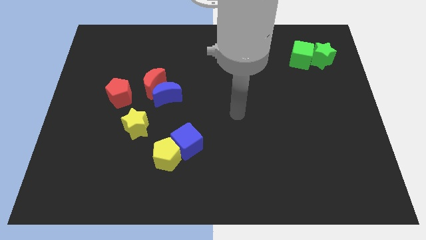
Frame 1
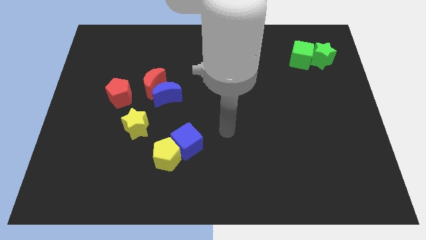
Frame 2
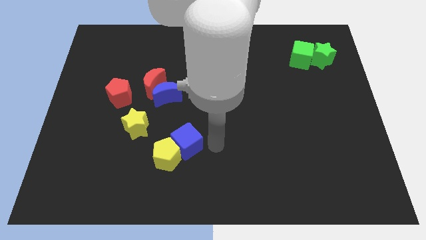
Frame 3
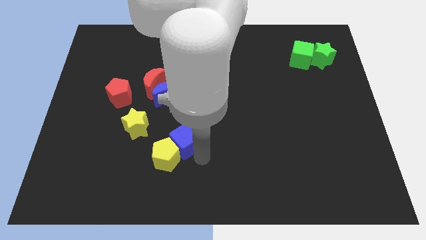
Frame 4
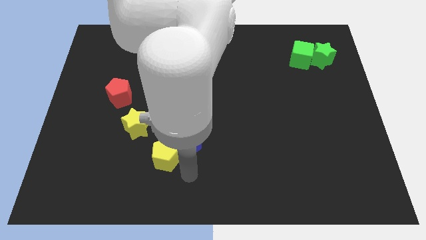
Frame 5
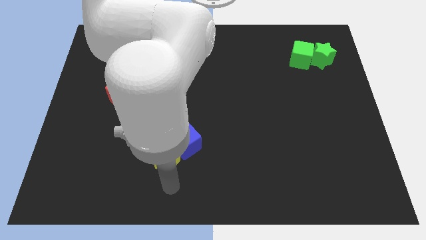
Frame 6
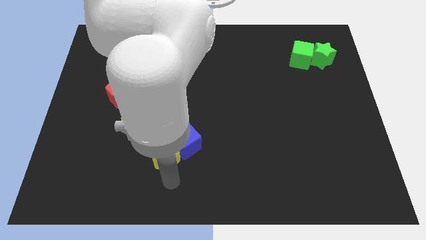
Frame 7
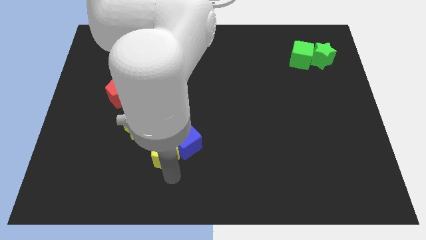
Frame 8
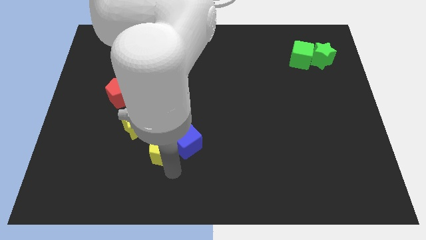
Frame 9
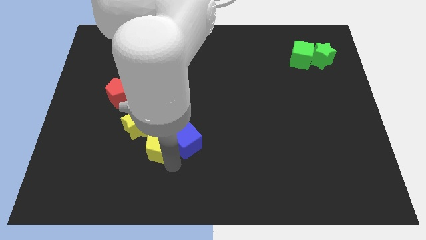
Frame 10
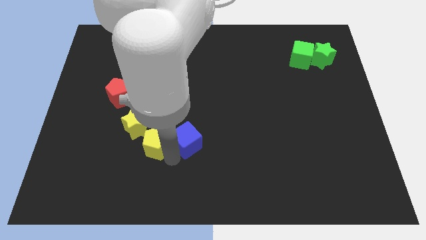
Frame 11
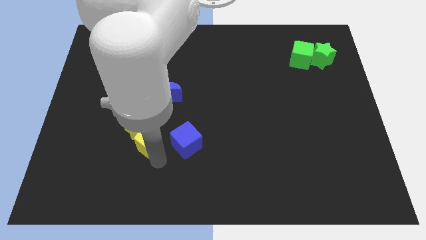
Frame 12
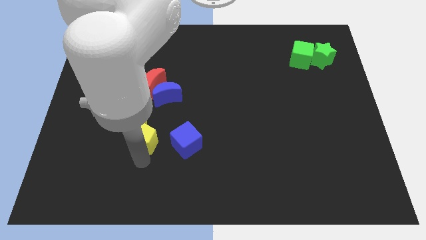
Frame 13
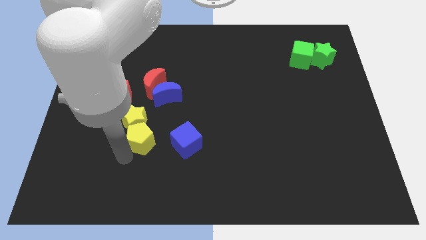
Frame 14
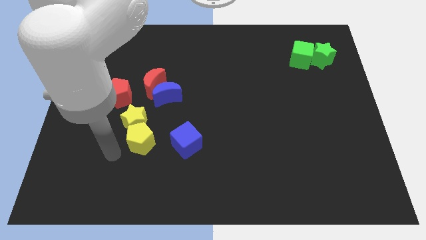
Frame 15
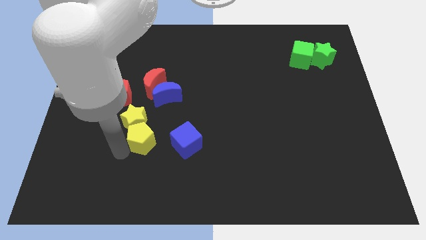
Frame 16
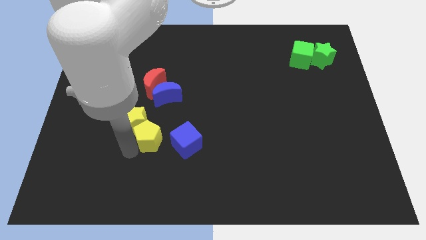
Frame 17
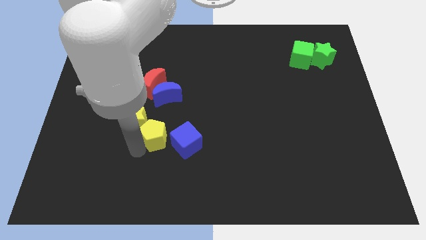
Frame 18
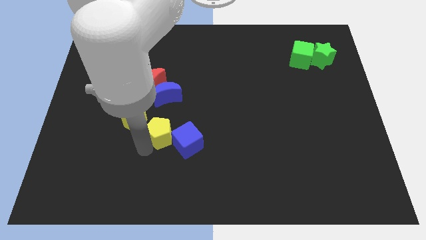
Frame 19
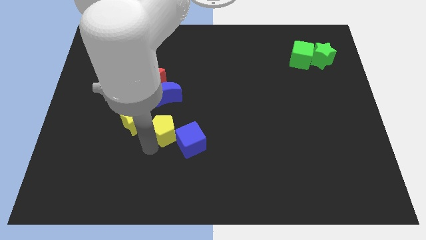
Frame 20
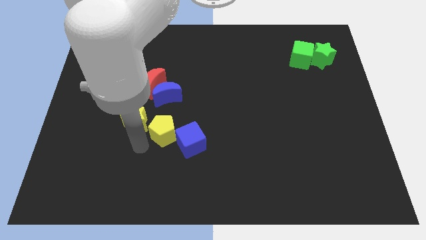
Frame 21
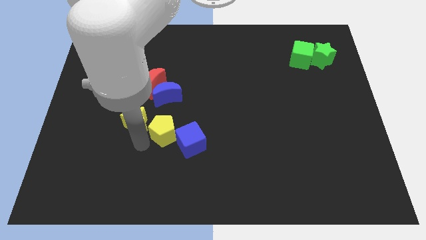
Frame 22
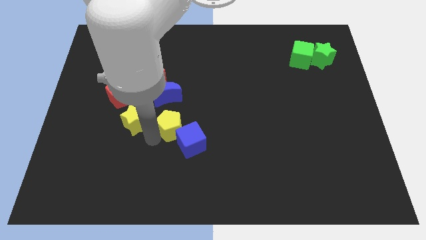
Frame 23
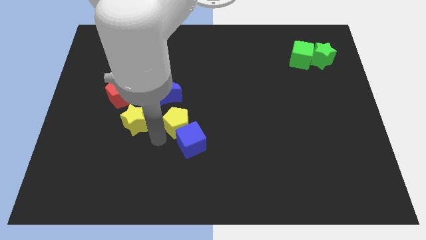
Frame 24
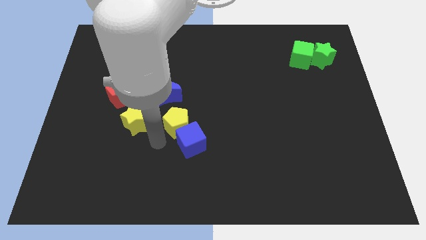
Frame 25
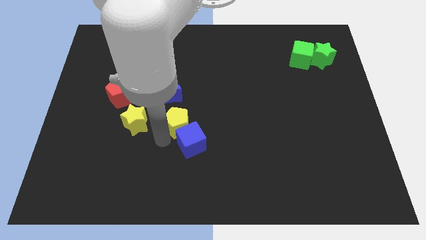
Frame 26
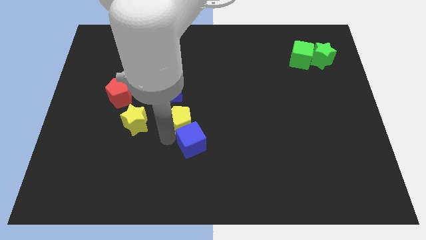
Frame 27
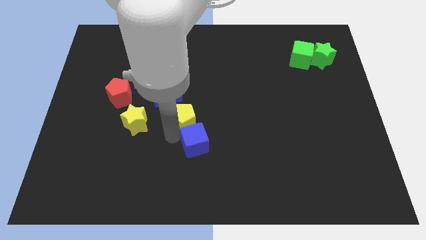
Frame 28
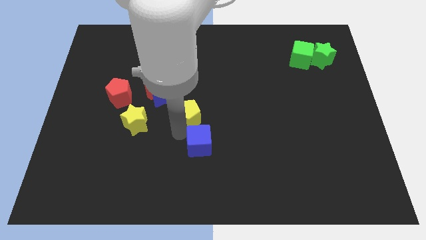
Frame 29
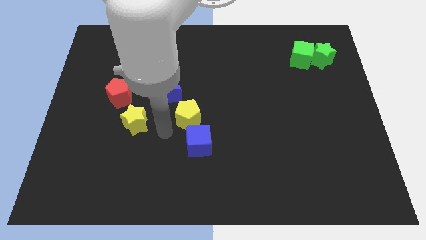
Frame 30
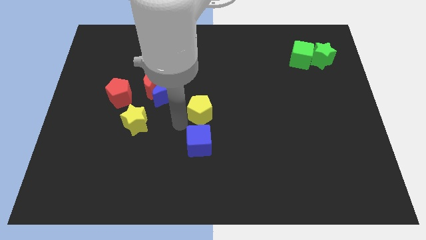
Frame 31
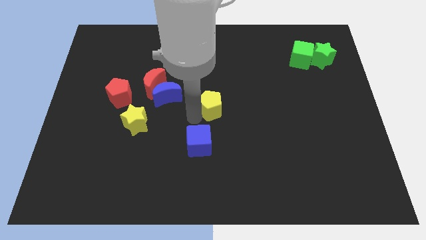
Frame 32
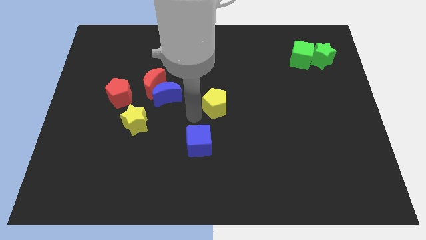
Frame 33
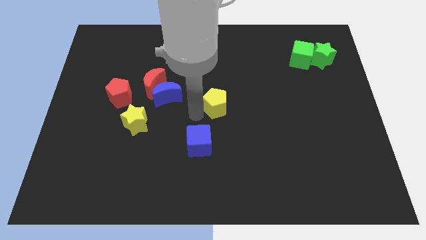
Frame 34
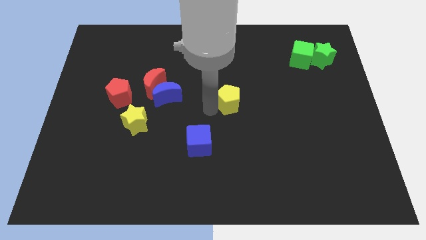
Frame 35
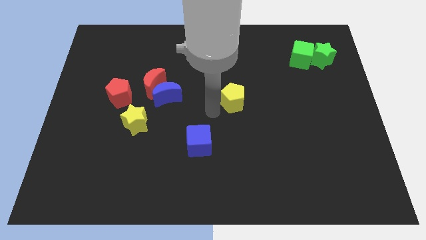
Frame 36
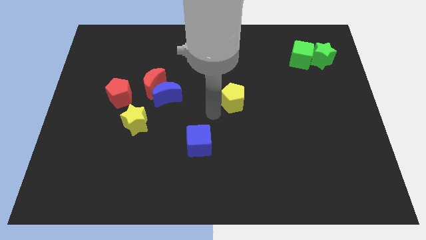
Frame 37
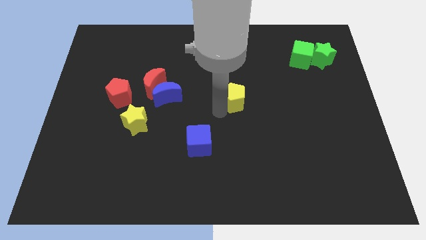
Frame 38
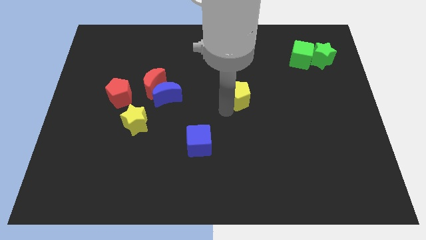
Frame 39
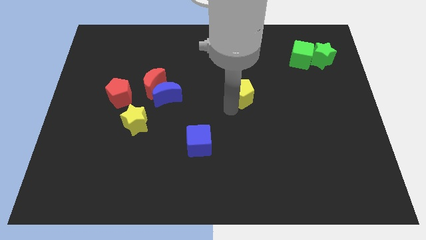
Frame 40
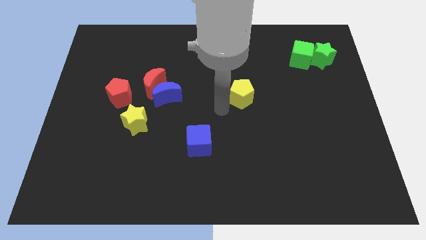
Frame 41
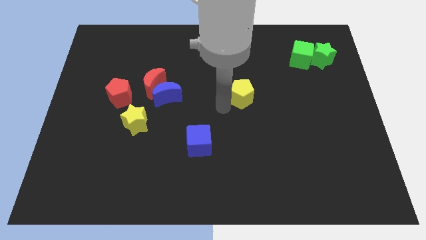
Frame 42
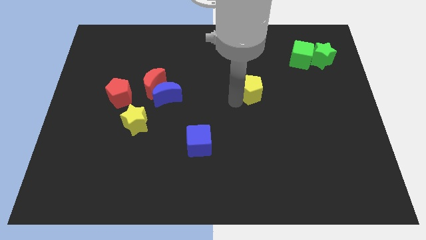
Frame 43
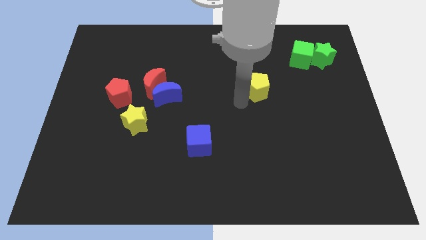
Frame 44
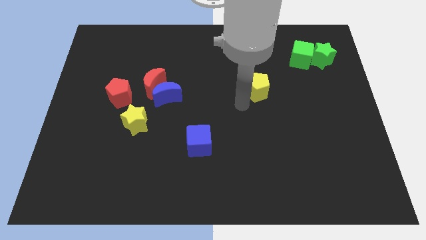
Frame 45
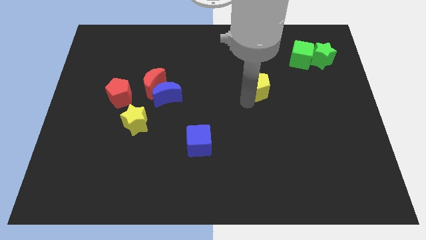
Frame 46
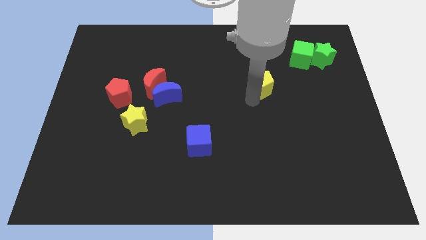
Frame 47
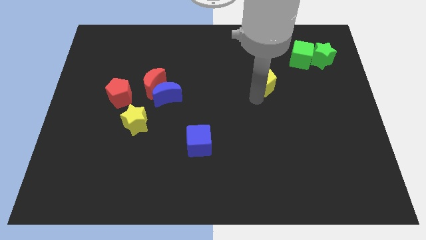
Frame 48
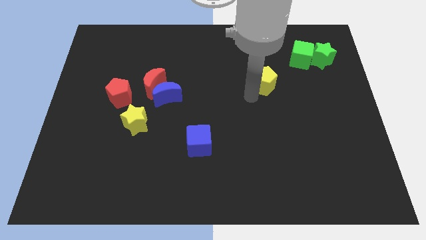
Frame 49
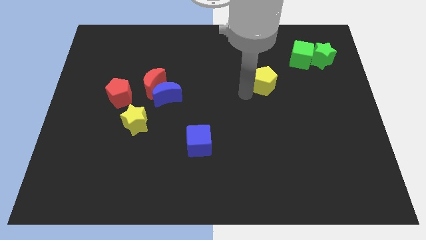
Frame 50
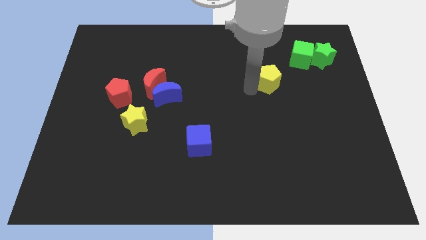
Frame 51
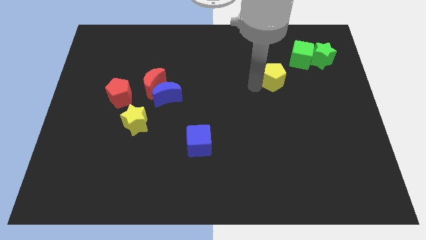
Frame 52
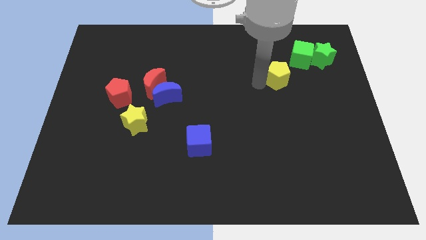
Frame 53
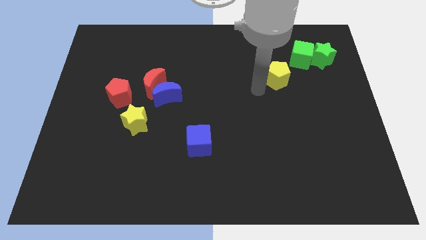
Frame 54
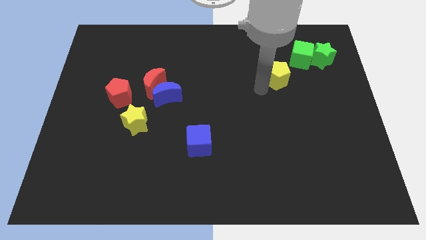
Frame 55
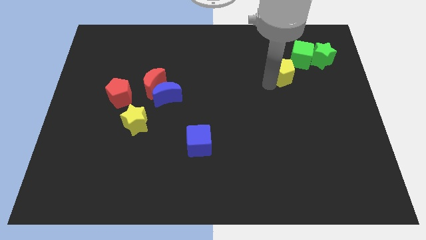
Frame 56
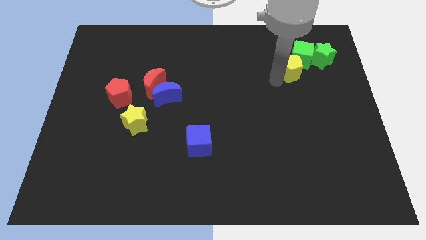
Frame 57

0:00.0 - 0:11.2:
push the yellow pentagon close to the green cube

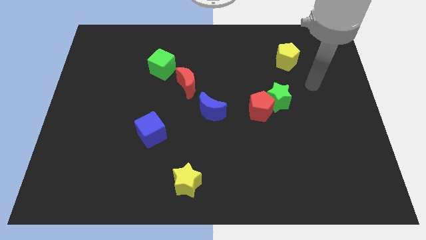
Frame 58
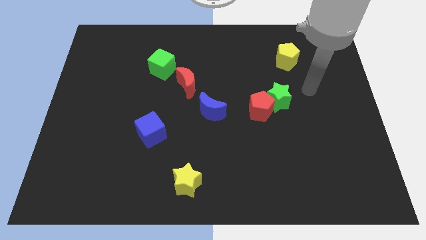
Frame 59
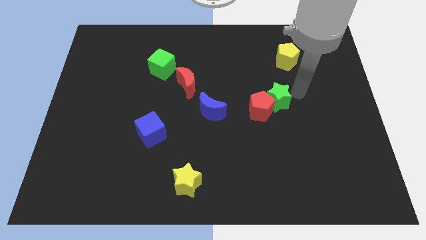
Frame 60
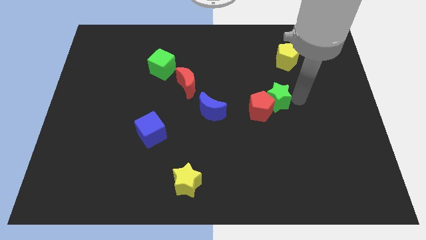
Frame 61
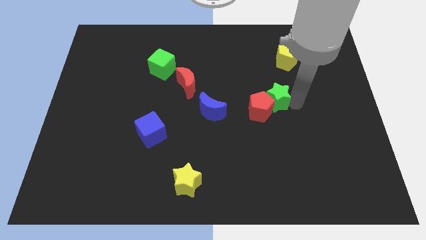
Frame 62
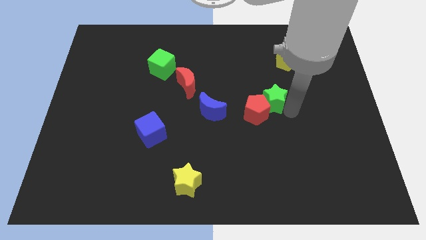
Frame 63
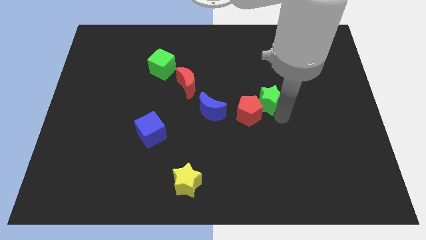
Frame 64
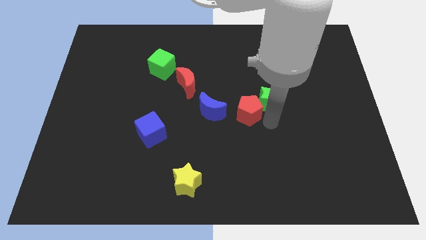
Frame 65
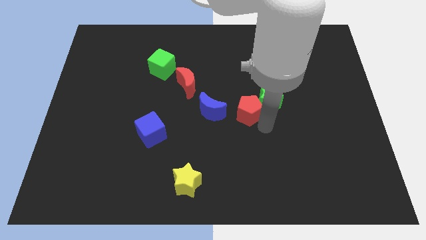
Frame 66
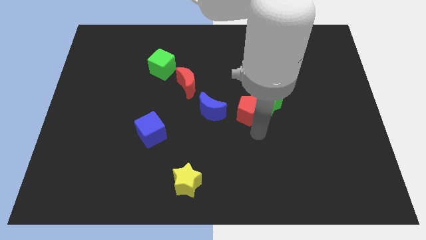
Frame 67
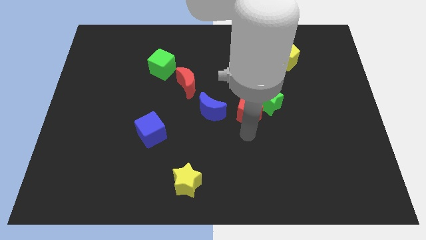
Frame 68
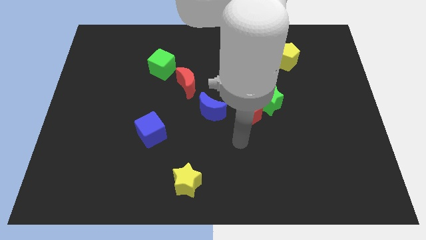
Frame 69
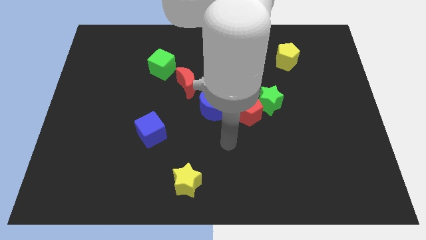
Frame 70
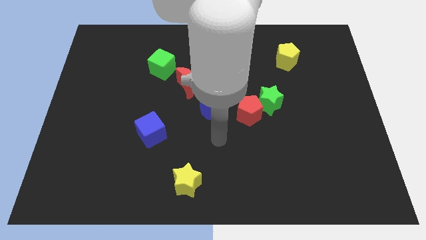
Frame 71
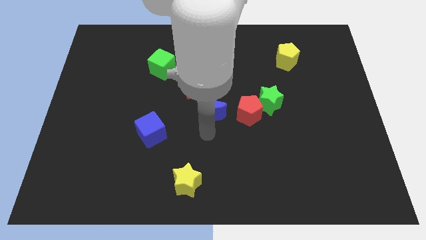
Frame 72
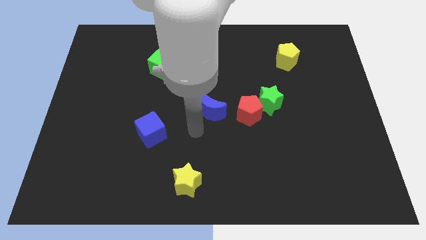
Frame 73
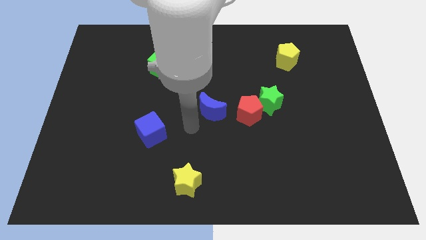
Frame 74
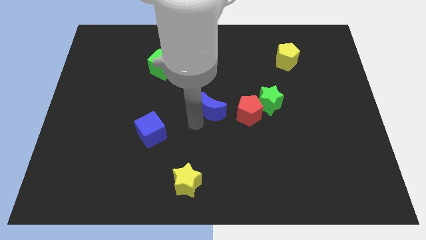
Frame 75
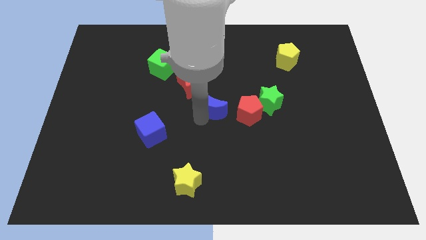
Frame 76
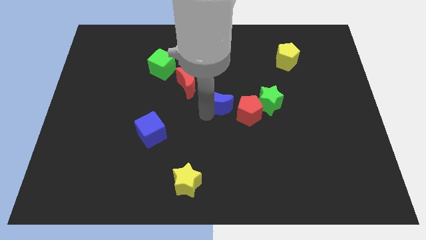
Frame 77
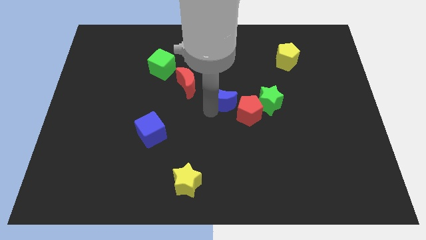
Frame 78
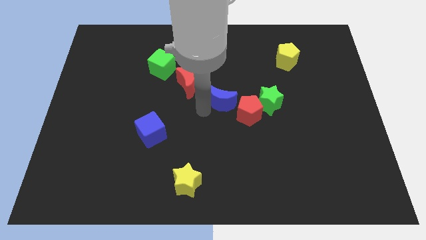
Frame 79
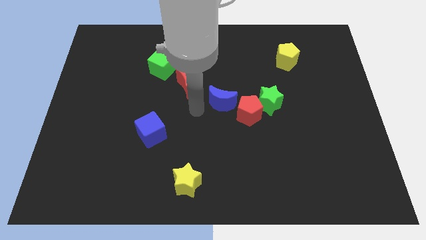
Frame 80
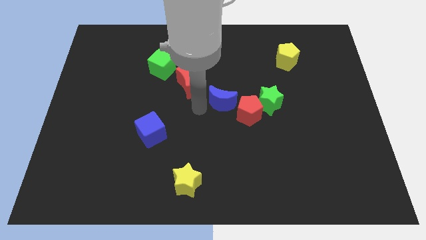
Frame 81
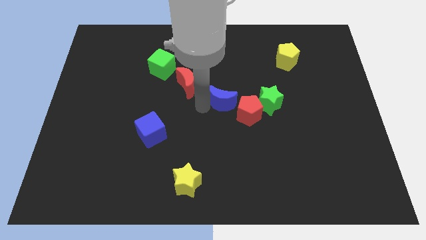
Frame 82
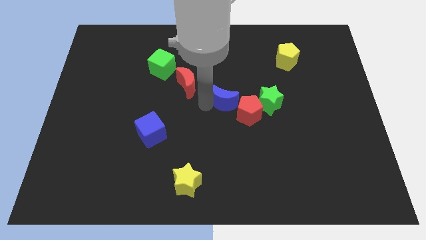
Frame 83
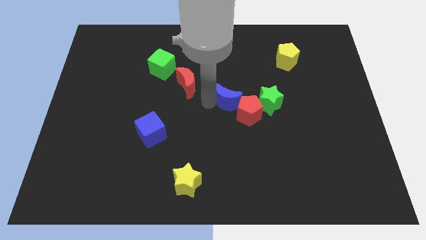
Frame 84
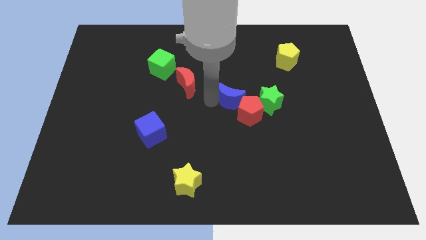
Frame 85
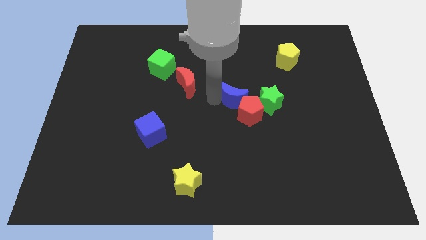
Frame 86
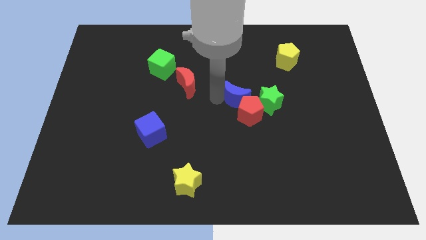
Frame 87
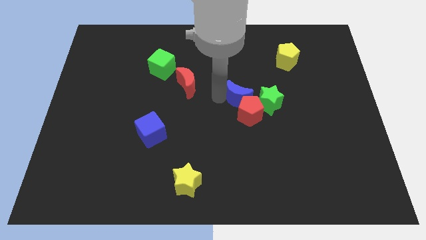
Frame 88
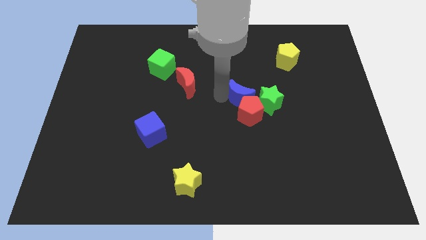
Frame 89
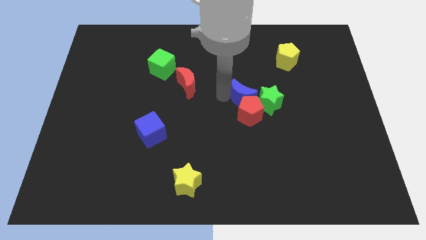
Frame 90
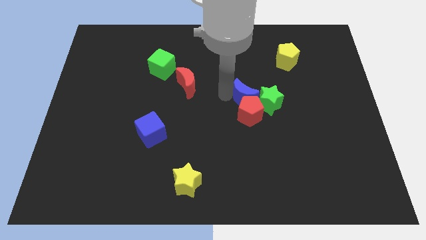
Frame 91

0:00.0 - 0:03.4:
move the blue moon close to the green star
